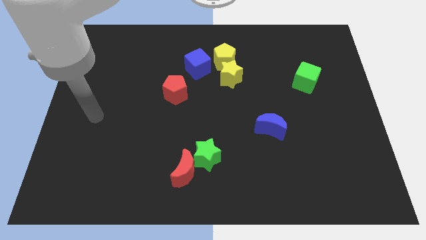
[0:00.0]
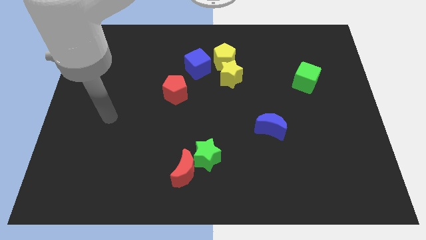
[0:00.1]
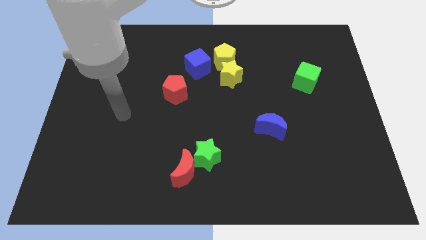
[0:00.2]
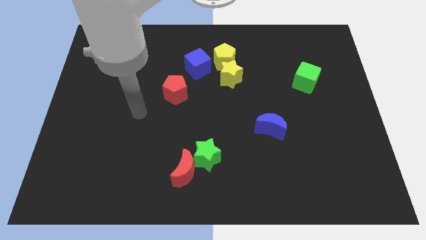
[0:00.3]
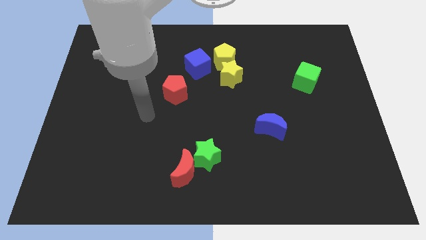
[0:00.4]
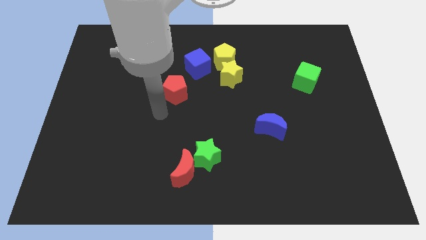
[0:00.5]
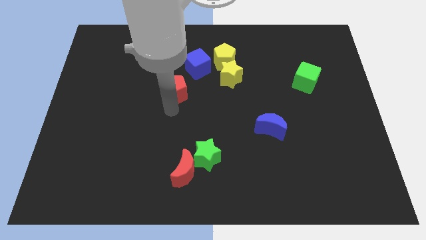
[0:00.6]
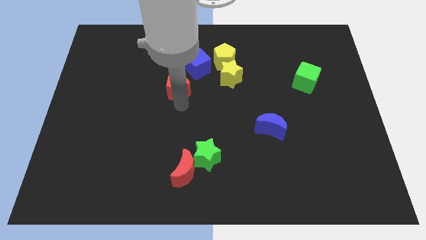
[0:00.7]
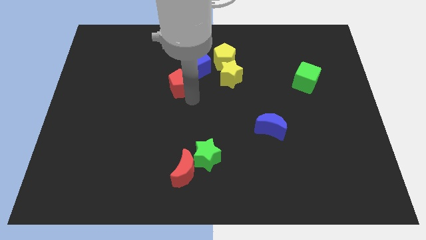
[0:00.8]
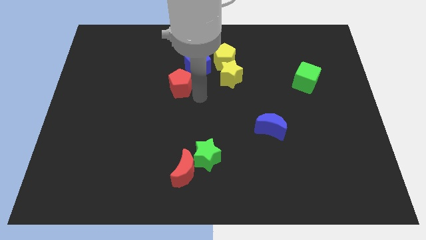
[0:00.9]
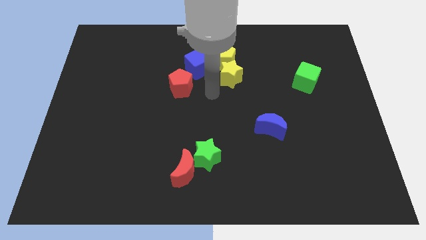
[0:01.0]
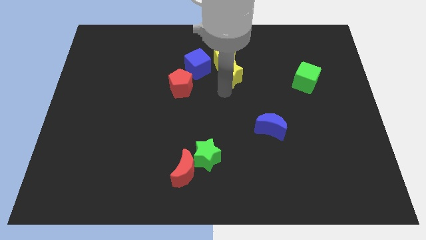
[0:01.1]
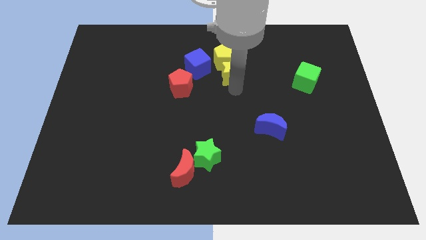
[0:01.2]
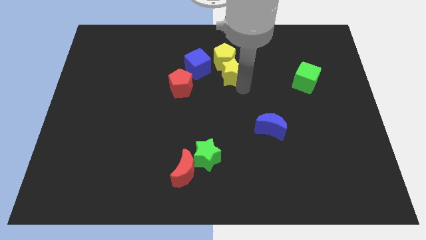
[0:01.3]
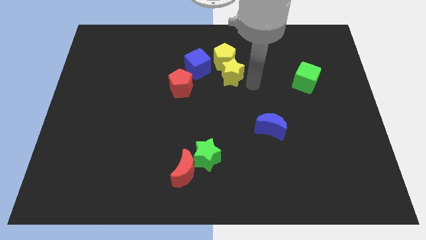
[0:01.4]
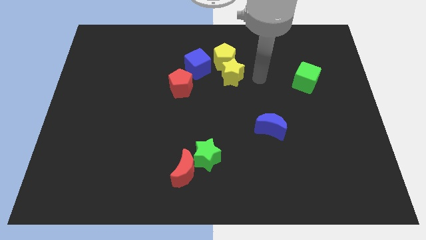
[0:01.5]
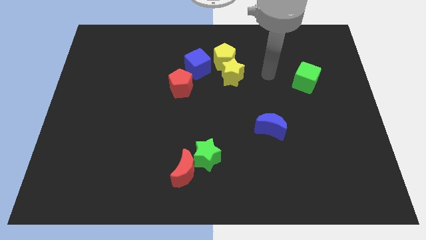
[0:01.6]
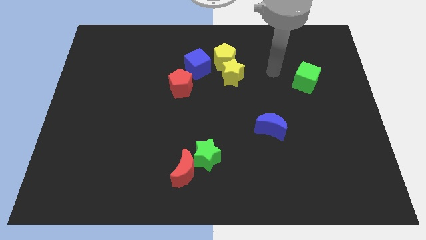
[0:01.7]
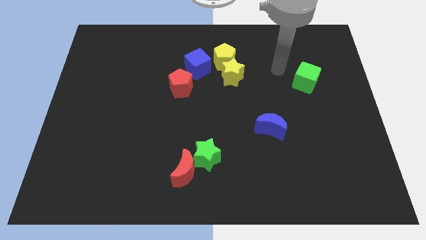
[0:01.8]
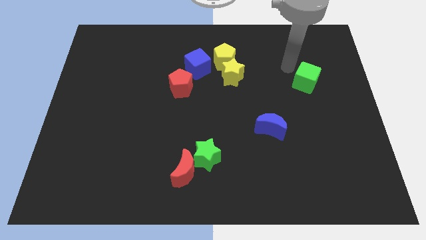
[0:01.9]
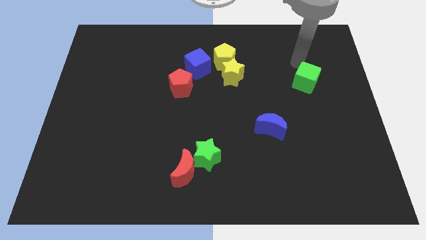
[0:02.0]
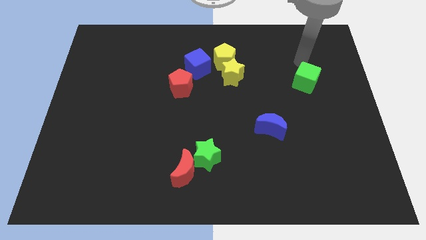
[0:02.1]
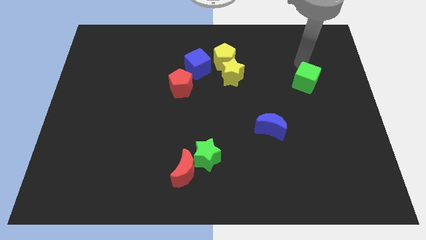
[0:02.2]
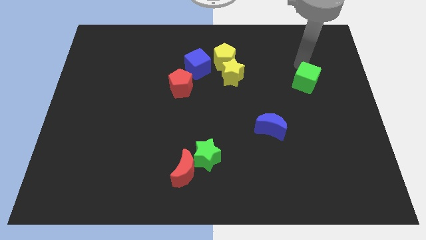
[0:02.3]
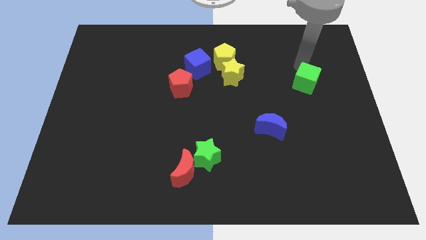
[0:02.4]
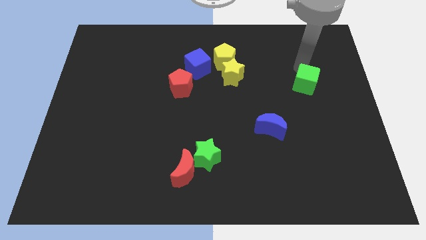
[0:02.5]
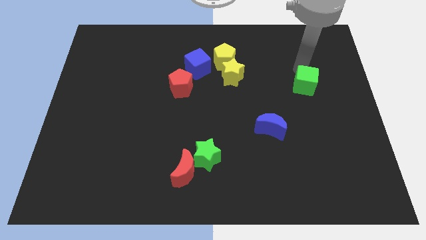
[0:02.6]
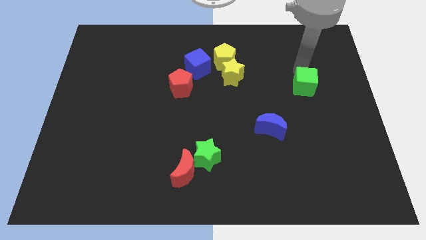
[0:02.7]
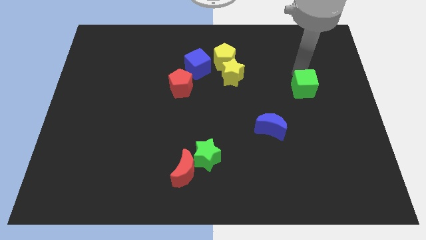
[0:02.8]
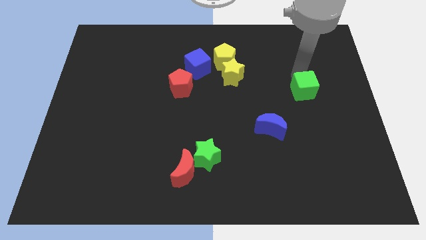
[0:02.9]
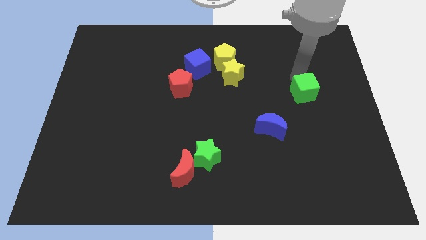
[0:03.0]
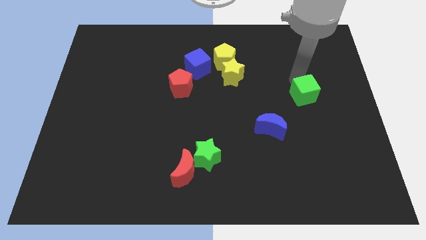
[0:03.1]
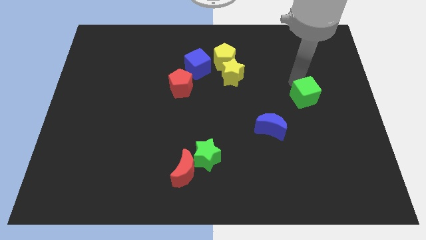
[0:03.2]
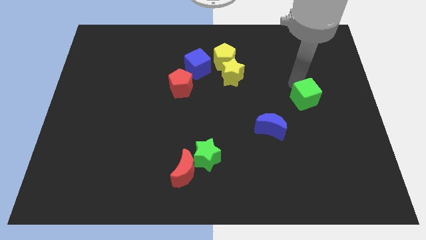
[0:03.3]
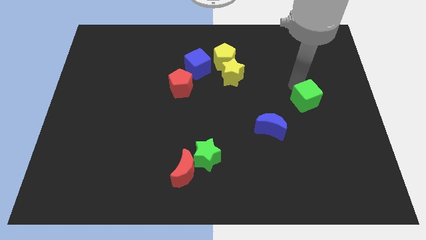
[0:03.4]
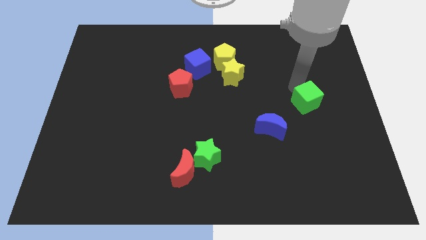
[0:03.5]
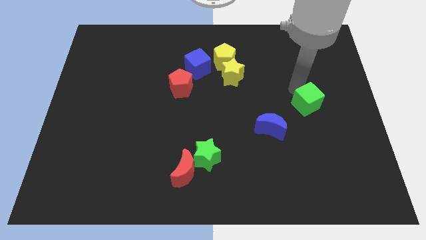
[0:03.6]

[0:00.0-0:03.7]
slightly move the green cube down

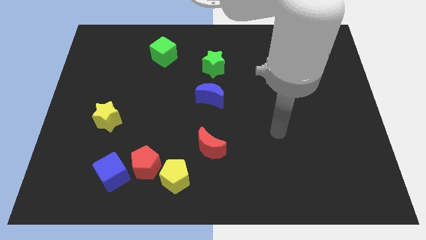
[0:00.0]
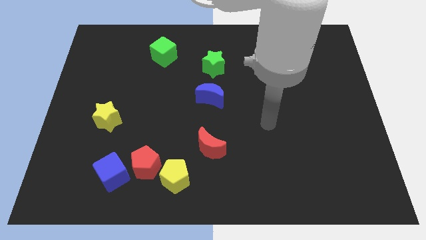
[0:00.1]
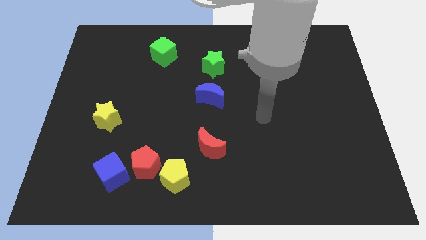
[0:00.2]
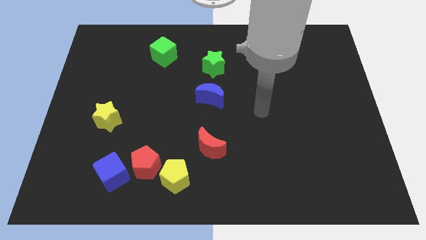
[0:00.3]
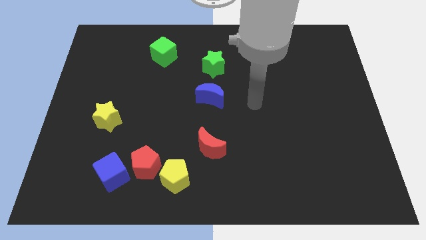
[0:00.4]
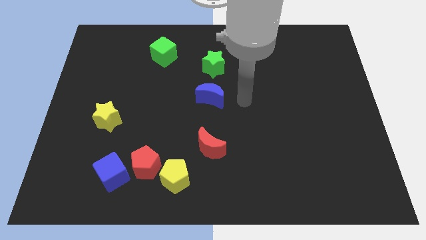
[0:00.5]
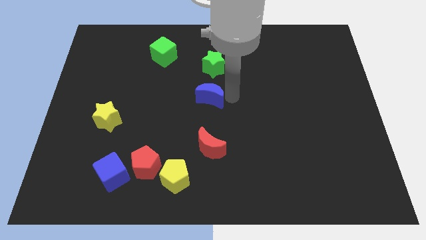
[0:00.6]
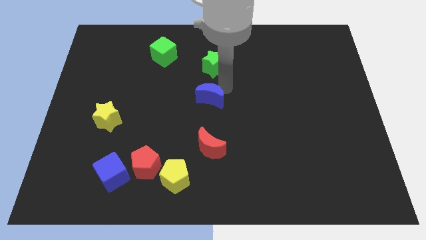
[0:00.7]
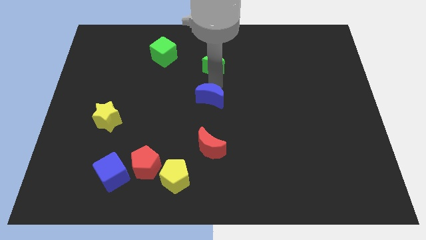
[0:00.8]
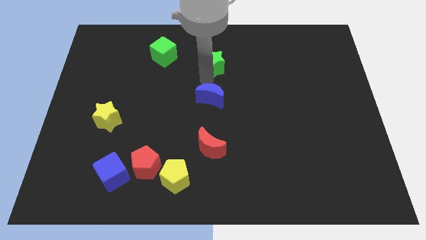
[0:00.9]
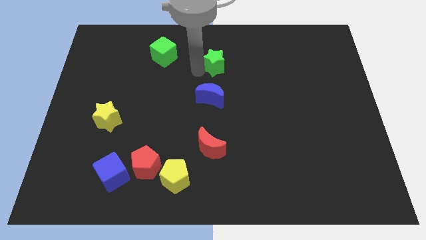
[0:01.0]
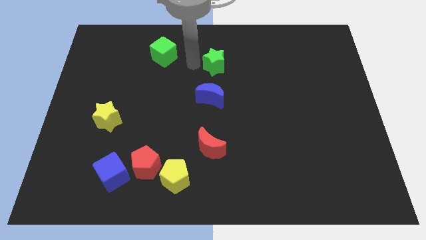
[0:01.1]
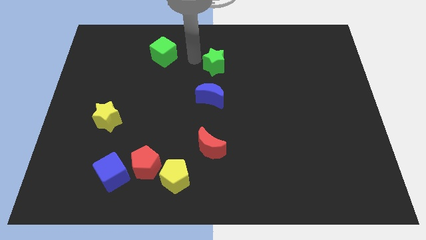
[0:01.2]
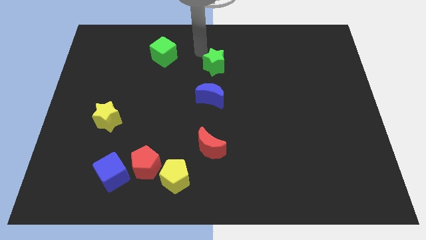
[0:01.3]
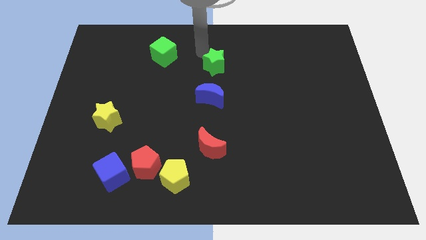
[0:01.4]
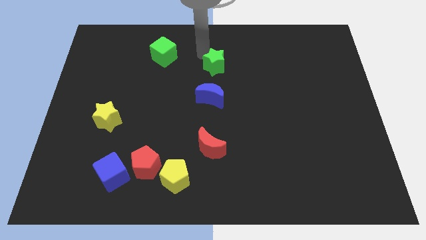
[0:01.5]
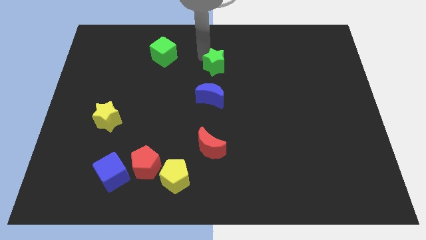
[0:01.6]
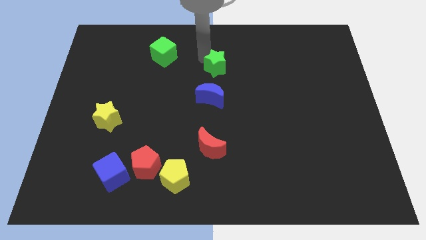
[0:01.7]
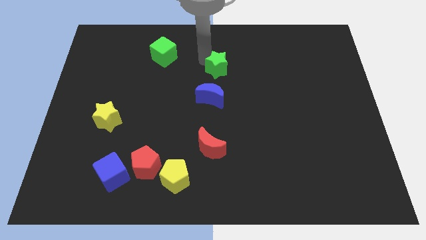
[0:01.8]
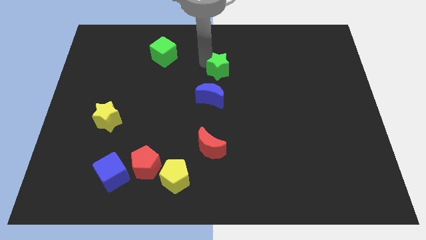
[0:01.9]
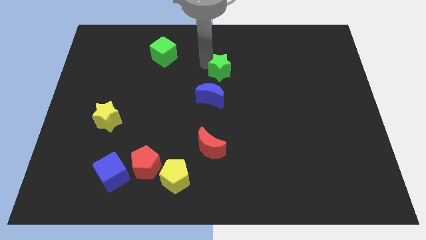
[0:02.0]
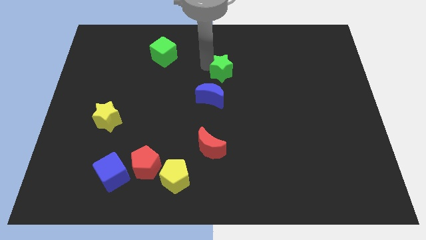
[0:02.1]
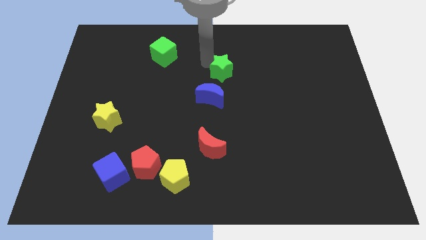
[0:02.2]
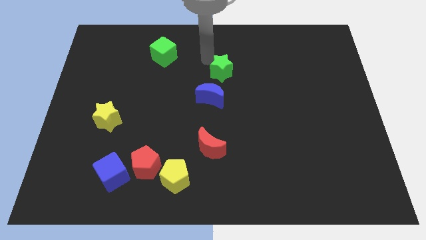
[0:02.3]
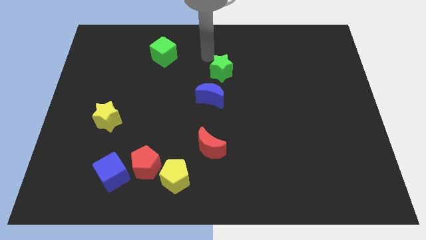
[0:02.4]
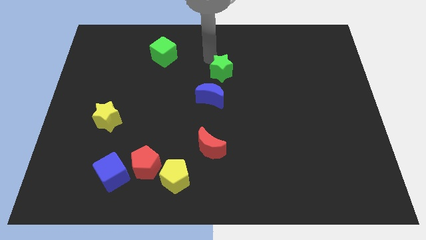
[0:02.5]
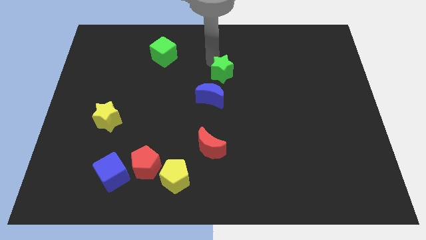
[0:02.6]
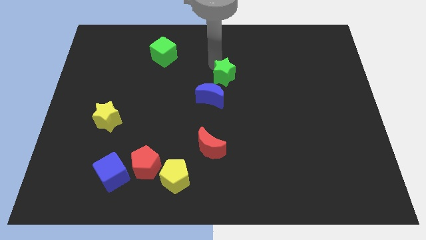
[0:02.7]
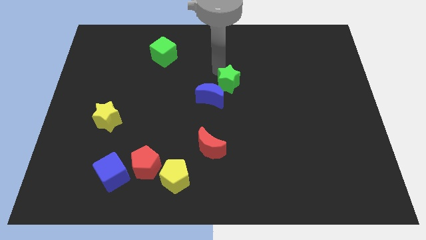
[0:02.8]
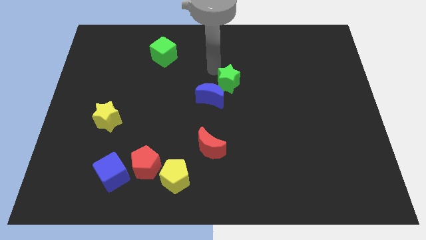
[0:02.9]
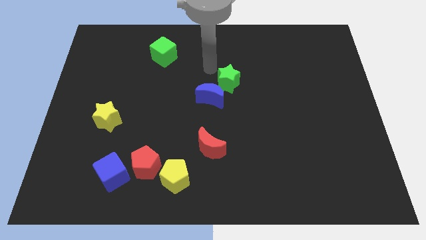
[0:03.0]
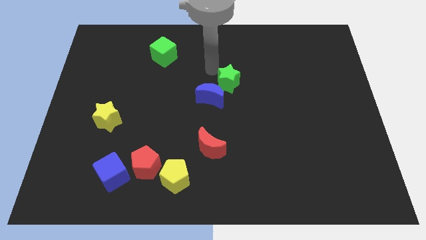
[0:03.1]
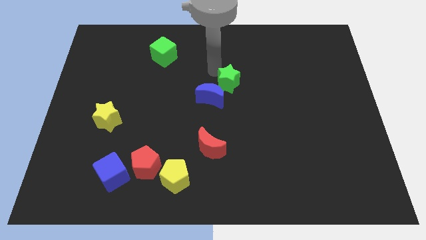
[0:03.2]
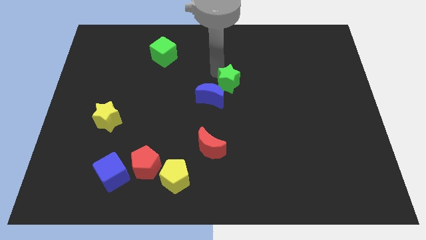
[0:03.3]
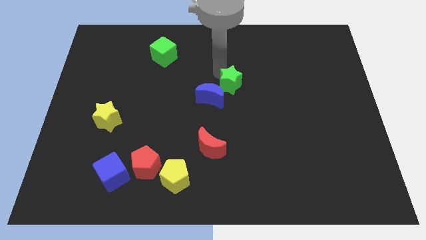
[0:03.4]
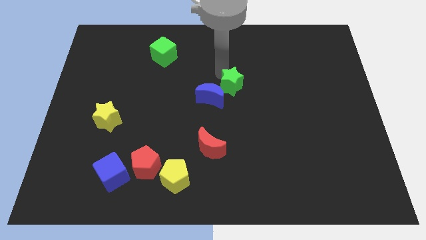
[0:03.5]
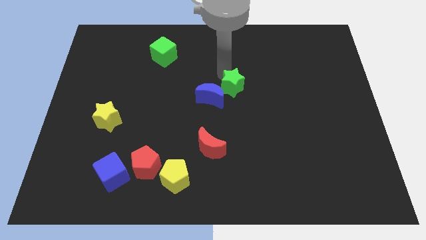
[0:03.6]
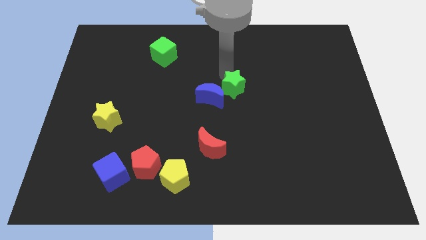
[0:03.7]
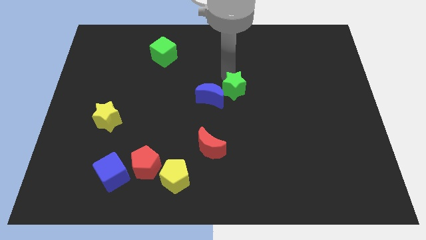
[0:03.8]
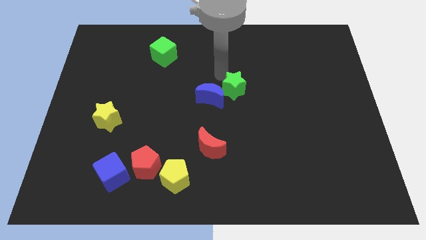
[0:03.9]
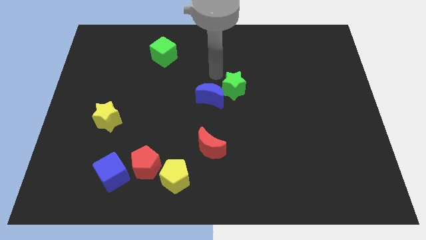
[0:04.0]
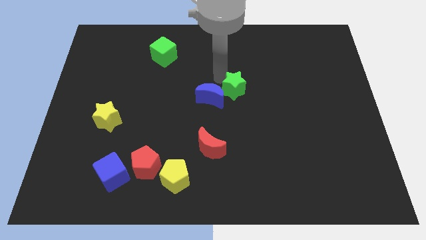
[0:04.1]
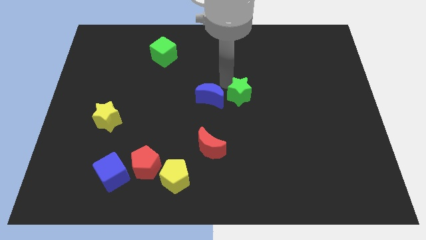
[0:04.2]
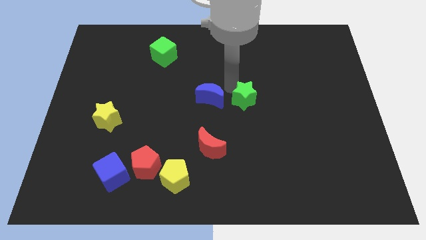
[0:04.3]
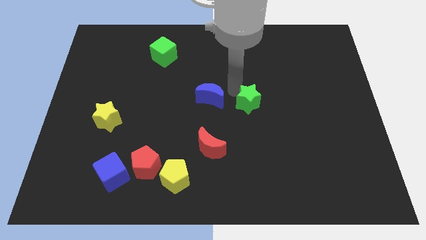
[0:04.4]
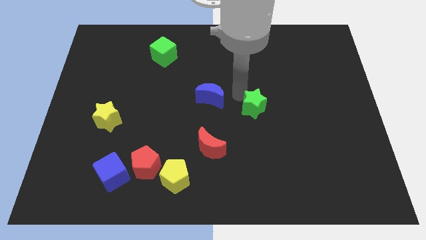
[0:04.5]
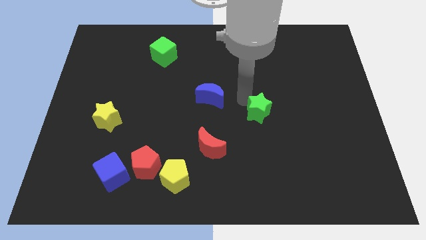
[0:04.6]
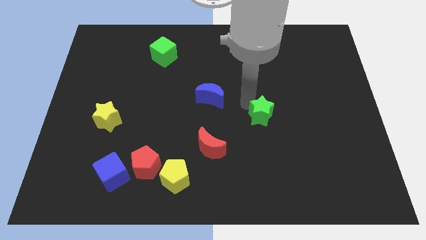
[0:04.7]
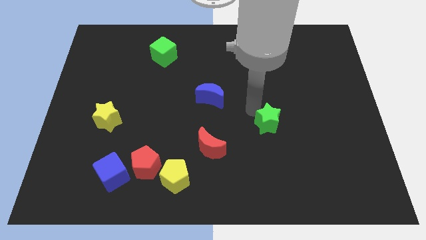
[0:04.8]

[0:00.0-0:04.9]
push the green star downwards and right diagonally
